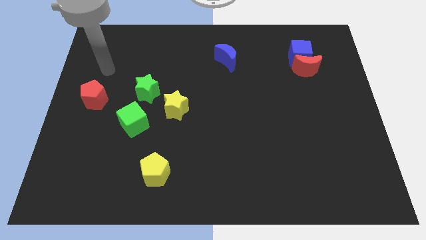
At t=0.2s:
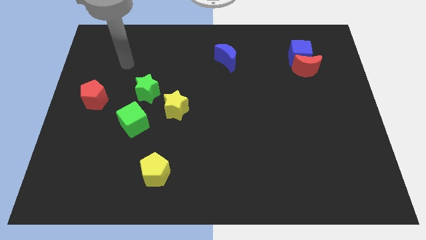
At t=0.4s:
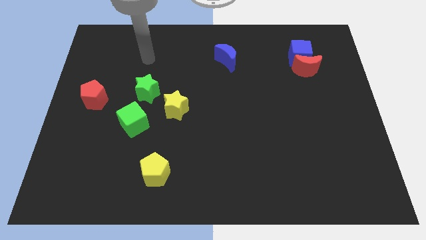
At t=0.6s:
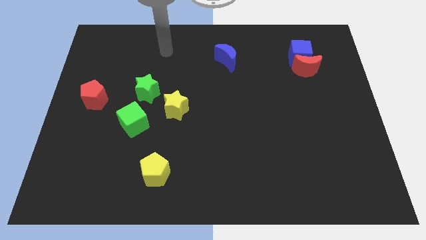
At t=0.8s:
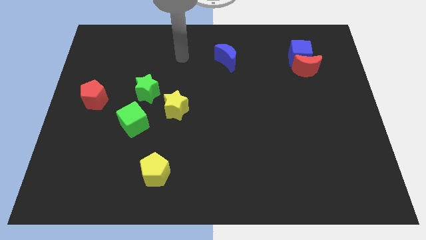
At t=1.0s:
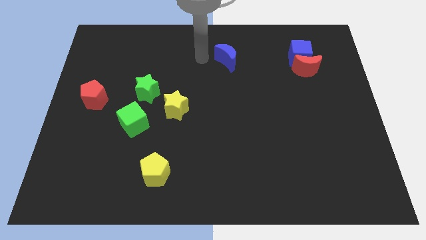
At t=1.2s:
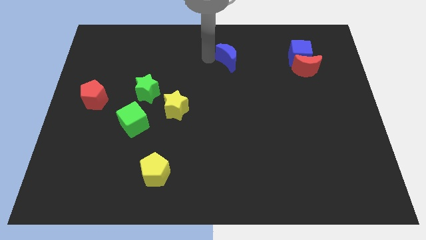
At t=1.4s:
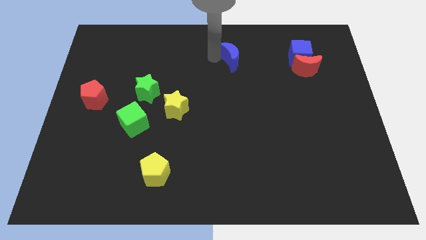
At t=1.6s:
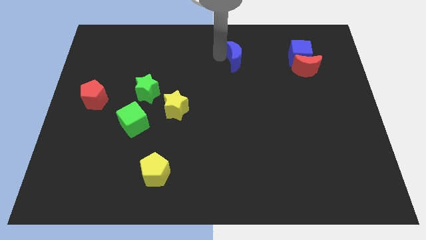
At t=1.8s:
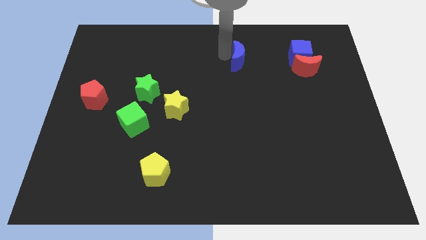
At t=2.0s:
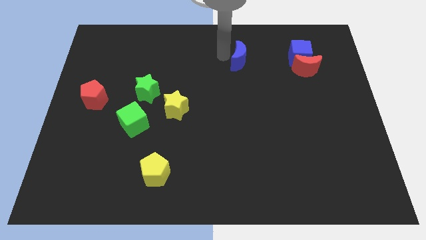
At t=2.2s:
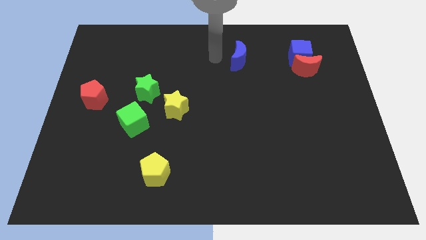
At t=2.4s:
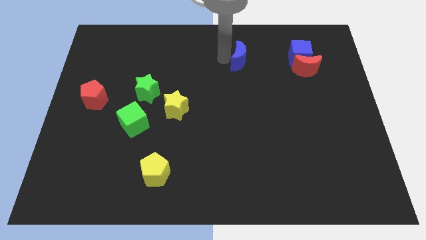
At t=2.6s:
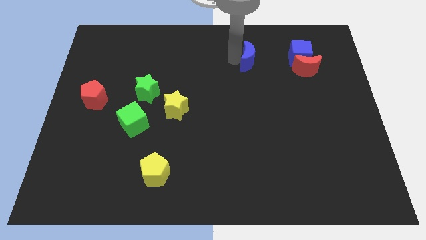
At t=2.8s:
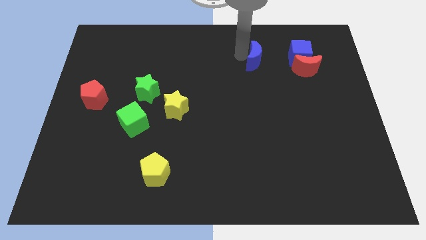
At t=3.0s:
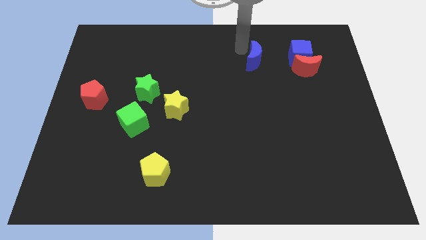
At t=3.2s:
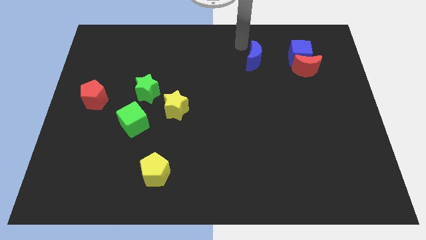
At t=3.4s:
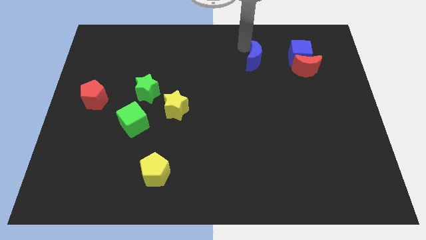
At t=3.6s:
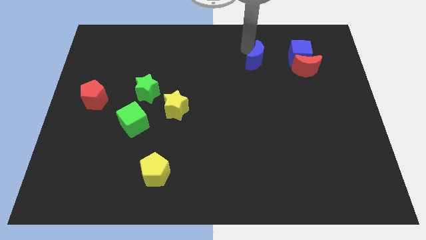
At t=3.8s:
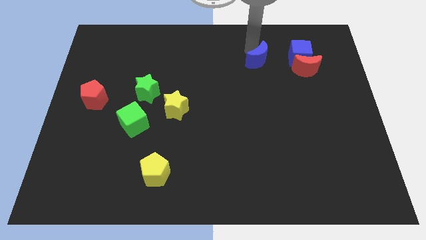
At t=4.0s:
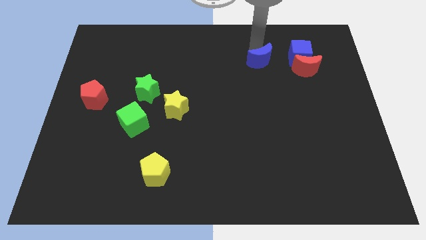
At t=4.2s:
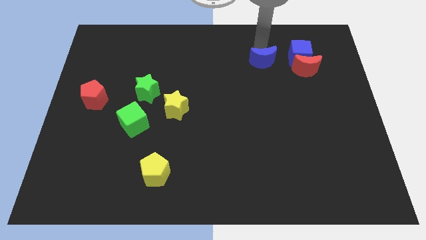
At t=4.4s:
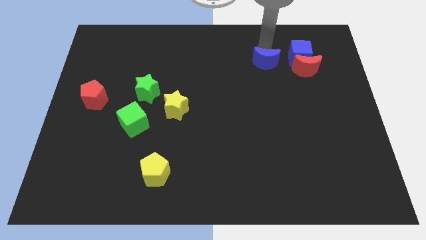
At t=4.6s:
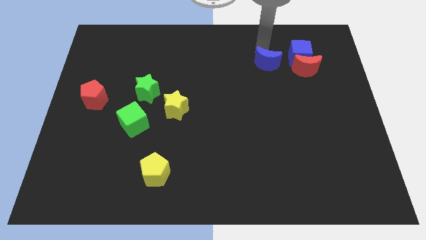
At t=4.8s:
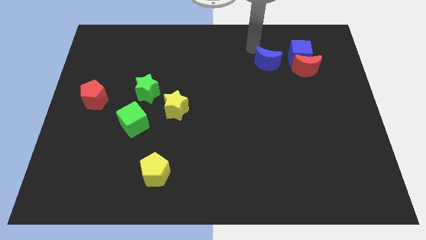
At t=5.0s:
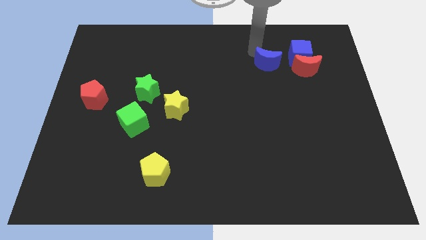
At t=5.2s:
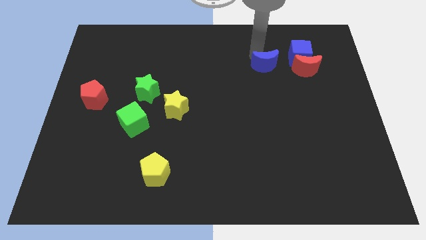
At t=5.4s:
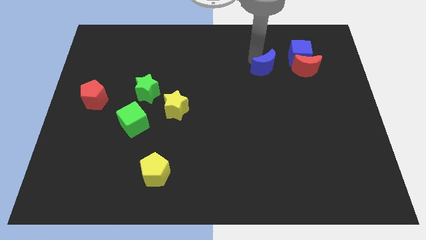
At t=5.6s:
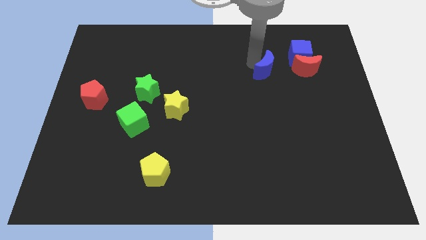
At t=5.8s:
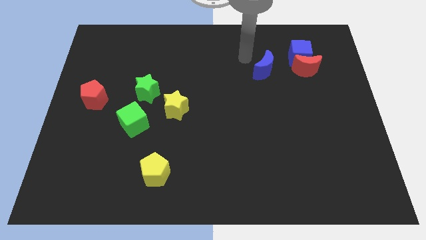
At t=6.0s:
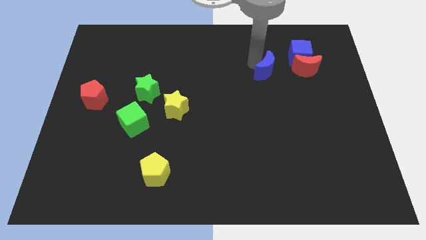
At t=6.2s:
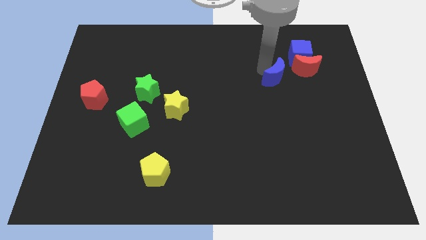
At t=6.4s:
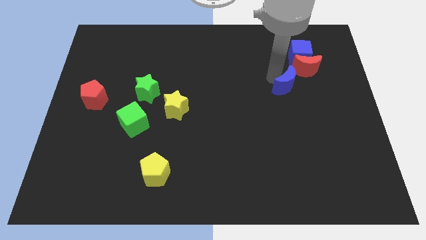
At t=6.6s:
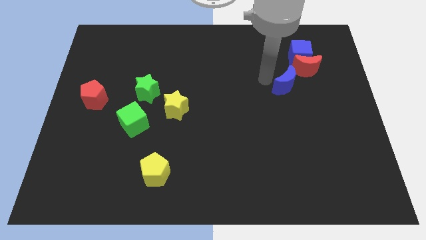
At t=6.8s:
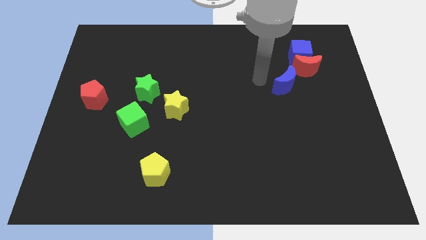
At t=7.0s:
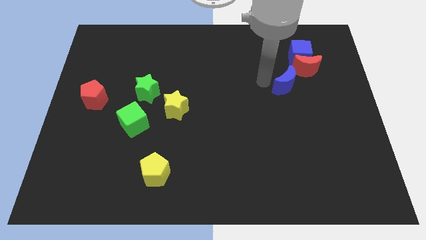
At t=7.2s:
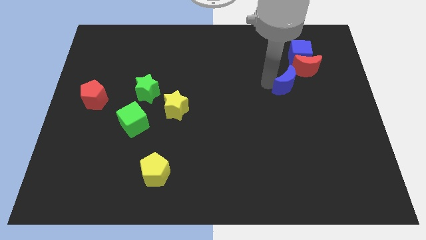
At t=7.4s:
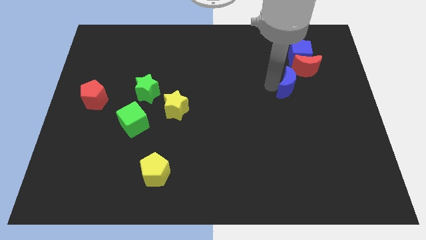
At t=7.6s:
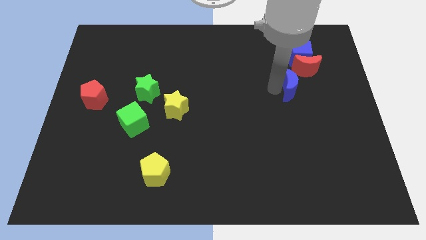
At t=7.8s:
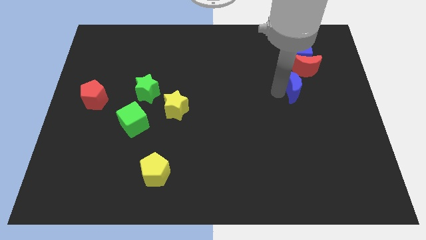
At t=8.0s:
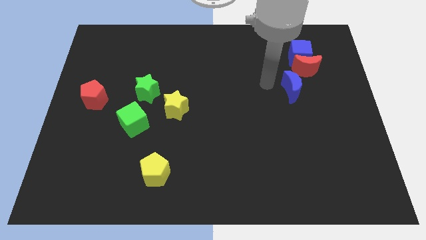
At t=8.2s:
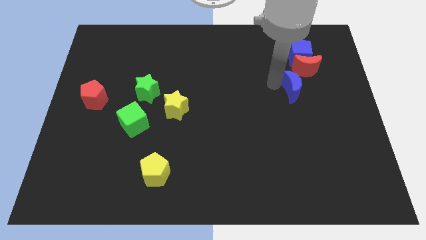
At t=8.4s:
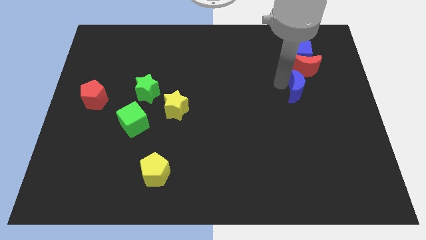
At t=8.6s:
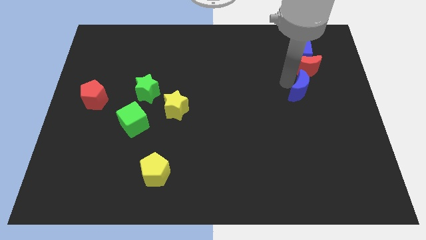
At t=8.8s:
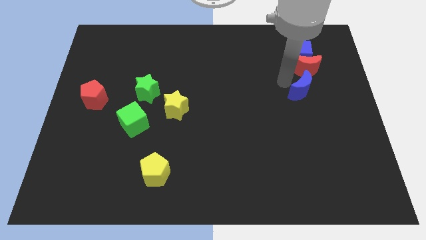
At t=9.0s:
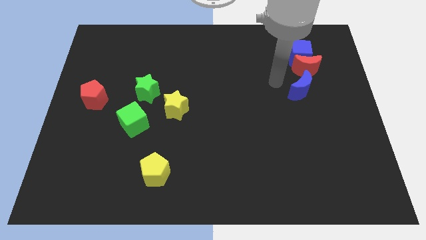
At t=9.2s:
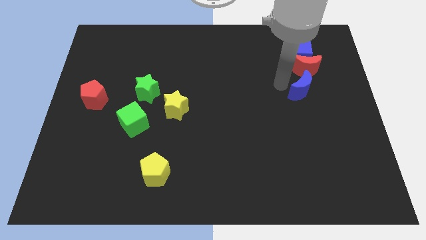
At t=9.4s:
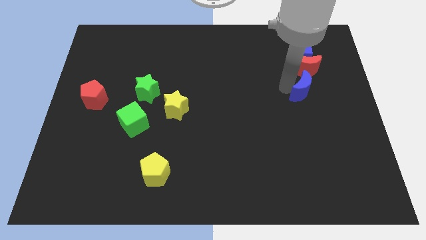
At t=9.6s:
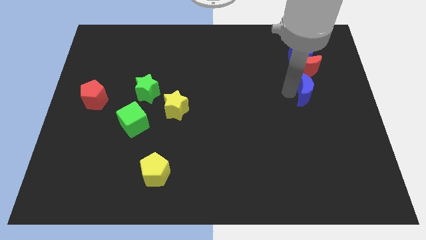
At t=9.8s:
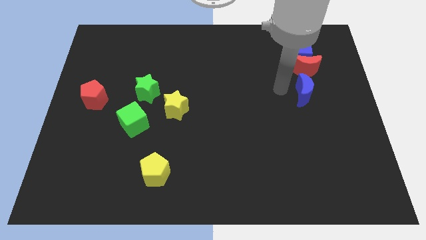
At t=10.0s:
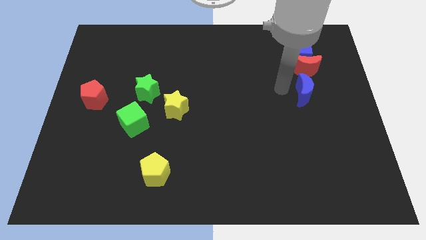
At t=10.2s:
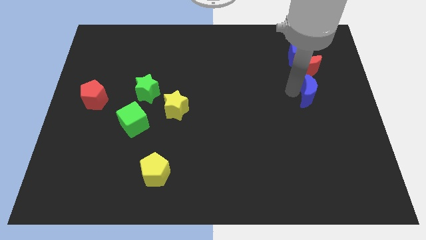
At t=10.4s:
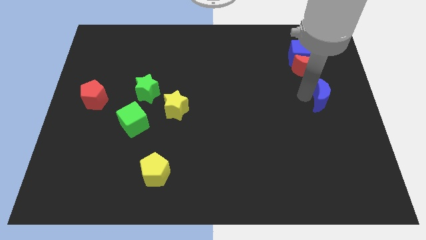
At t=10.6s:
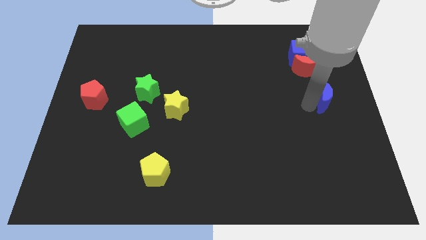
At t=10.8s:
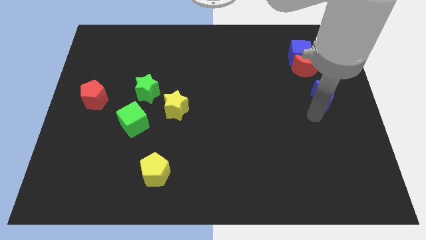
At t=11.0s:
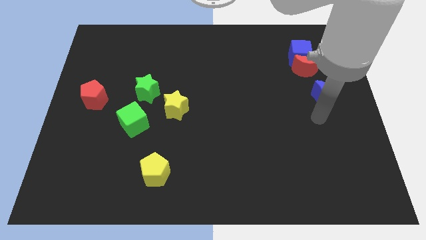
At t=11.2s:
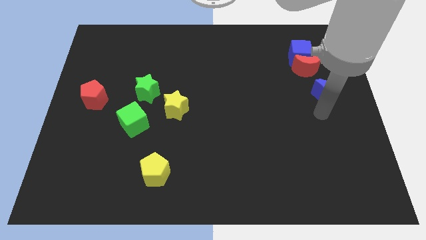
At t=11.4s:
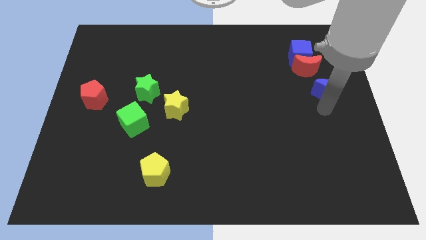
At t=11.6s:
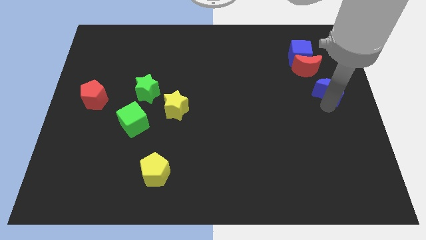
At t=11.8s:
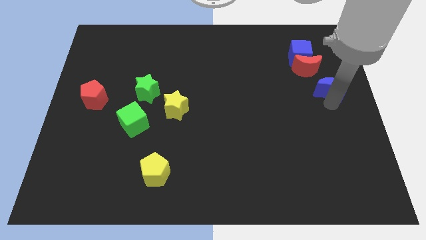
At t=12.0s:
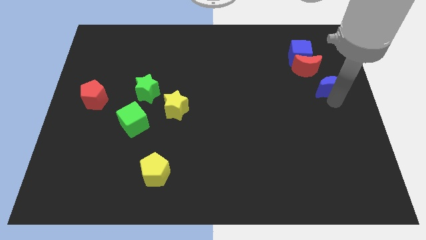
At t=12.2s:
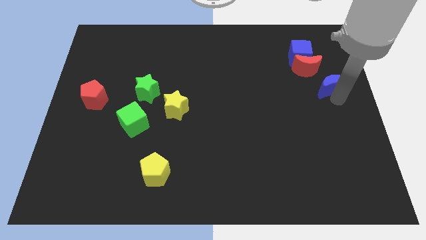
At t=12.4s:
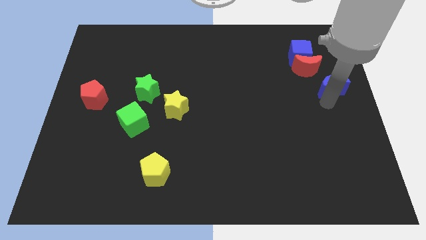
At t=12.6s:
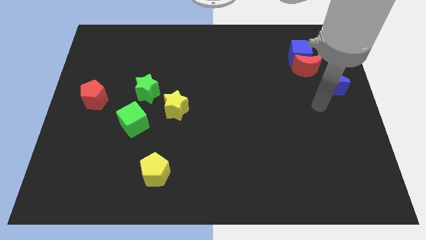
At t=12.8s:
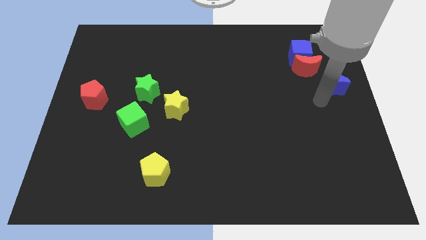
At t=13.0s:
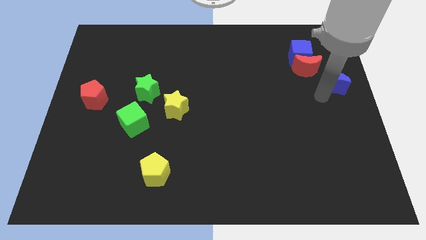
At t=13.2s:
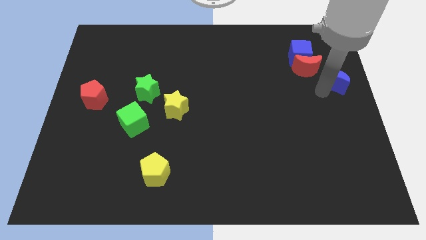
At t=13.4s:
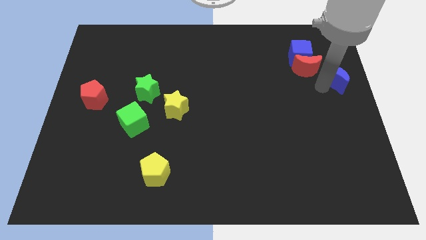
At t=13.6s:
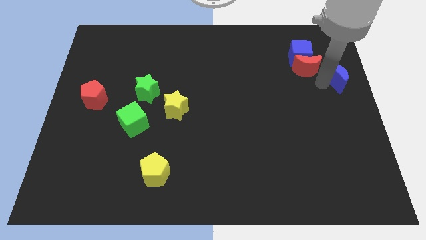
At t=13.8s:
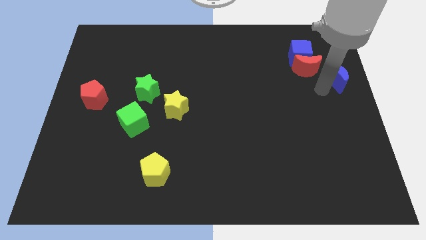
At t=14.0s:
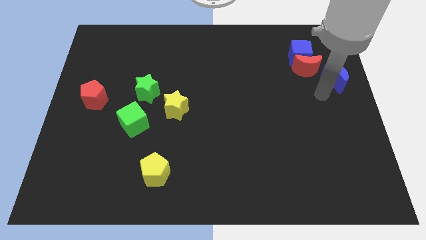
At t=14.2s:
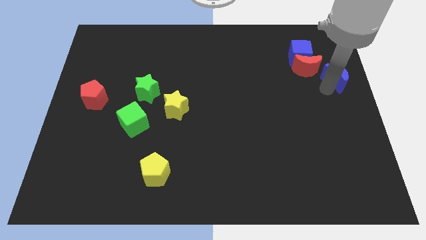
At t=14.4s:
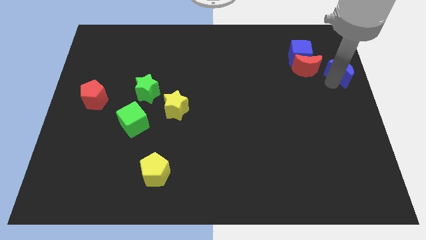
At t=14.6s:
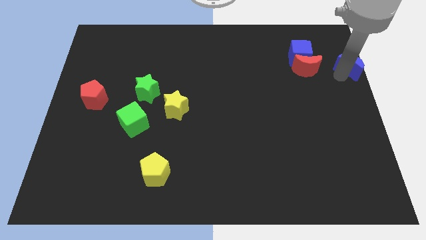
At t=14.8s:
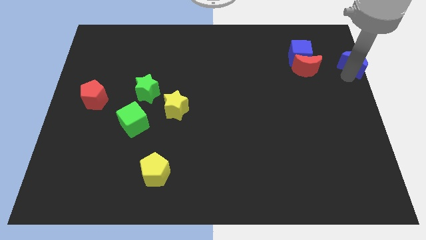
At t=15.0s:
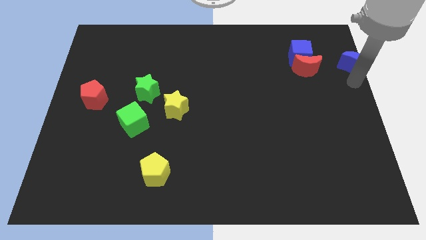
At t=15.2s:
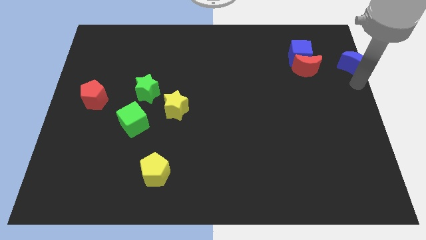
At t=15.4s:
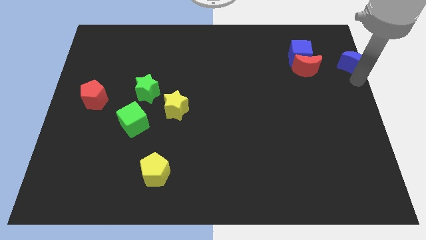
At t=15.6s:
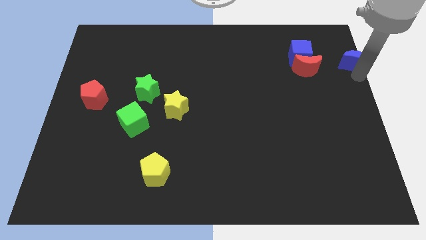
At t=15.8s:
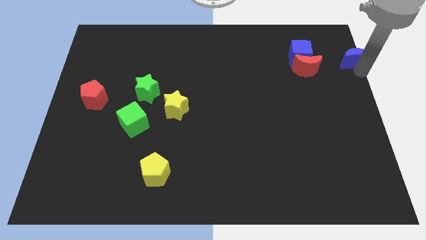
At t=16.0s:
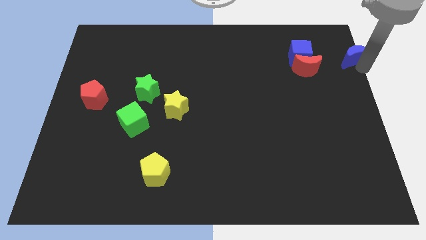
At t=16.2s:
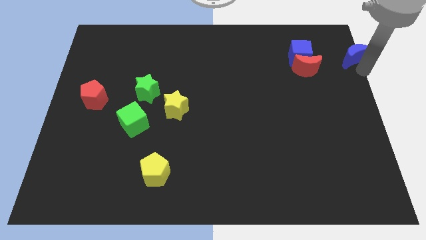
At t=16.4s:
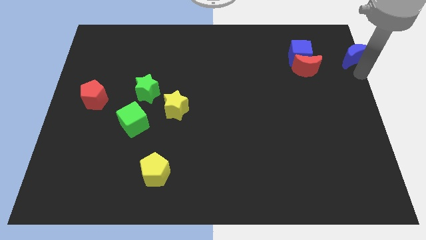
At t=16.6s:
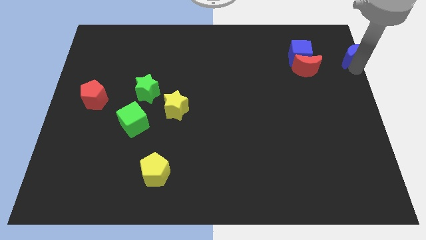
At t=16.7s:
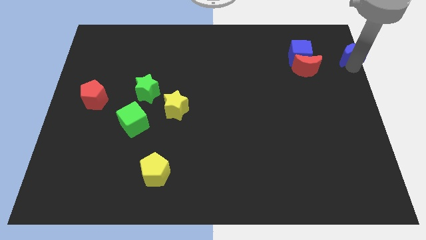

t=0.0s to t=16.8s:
slide the blue moon to the top right
